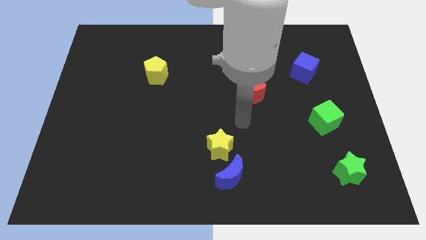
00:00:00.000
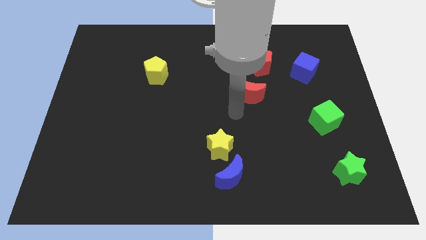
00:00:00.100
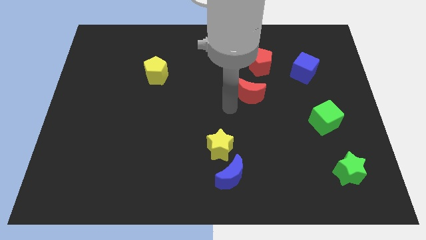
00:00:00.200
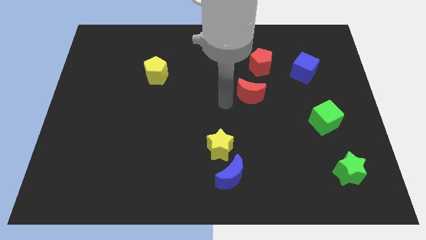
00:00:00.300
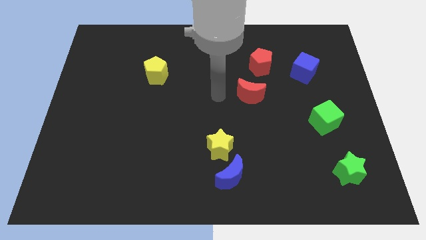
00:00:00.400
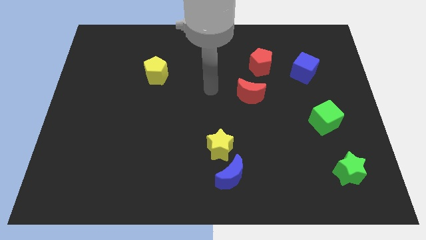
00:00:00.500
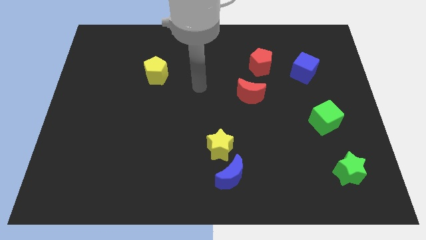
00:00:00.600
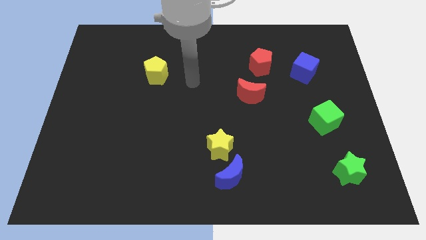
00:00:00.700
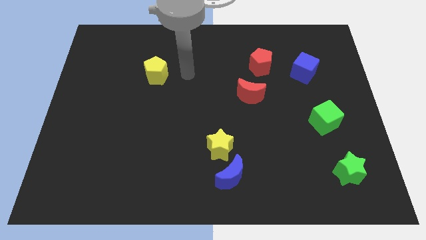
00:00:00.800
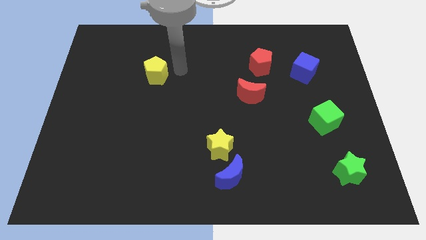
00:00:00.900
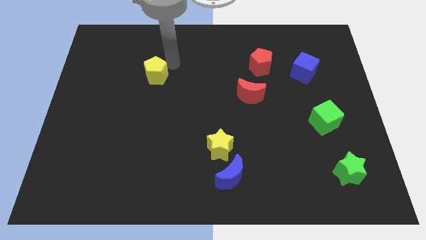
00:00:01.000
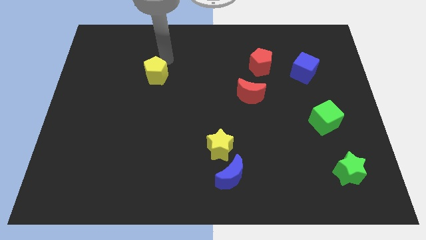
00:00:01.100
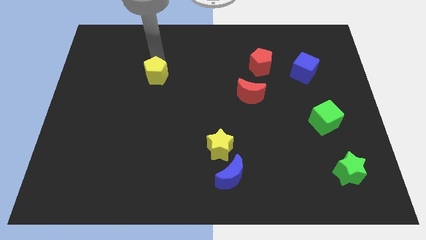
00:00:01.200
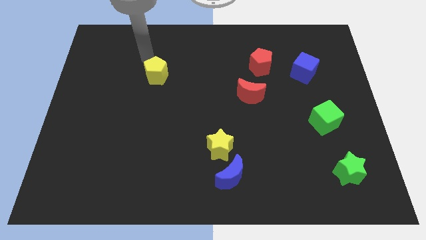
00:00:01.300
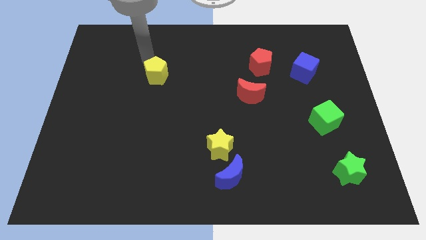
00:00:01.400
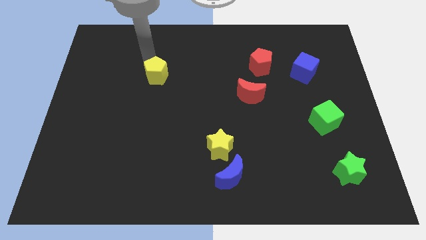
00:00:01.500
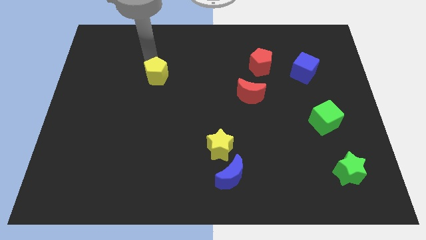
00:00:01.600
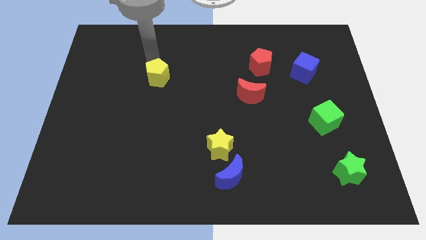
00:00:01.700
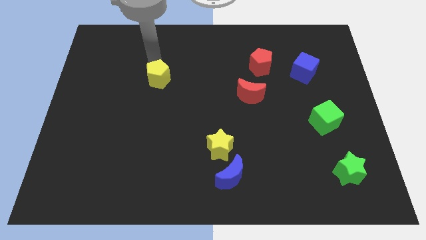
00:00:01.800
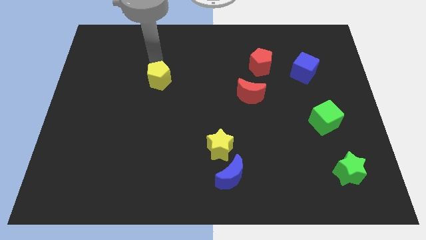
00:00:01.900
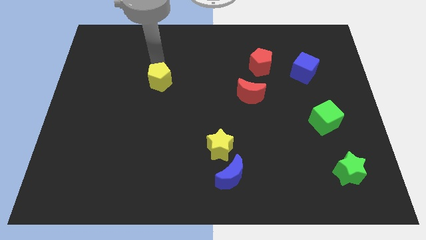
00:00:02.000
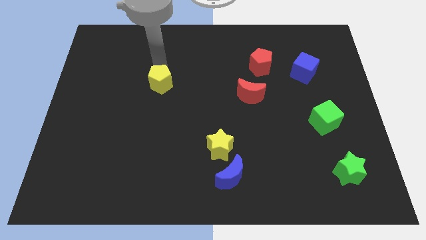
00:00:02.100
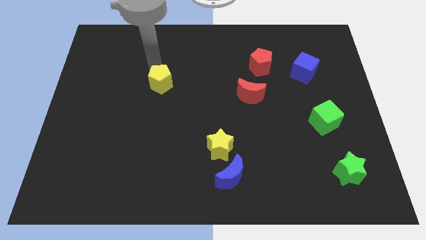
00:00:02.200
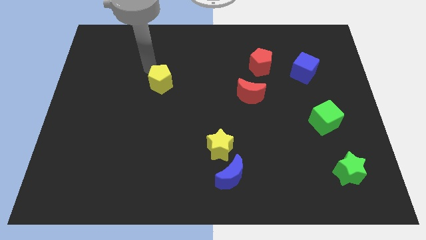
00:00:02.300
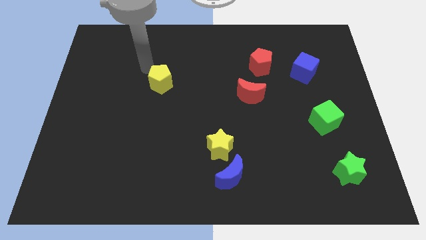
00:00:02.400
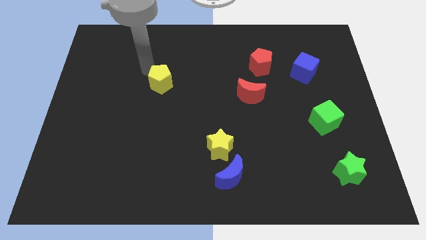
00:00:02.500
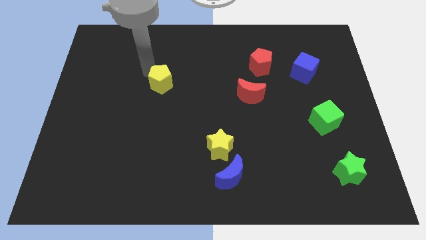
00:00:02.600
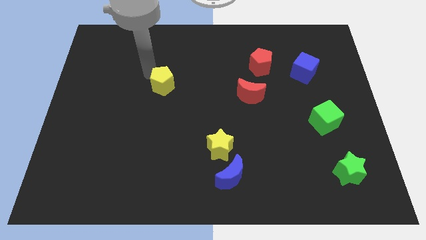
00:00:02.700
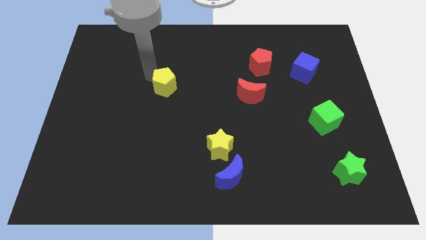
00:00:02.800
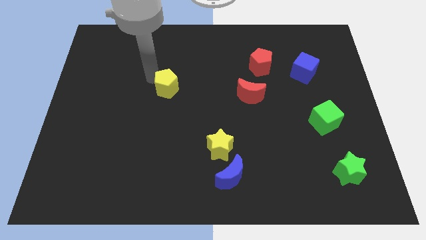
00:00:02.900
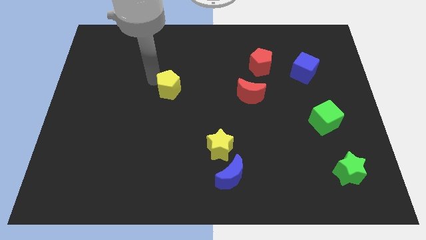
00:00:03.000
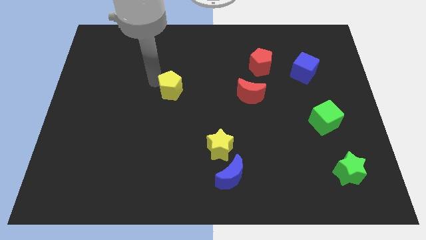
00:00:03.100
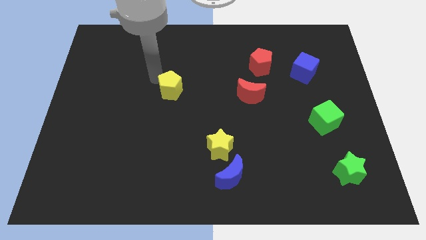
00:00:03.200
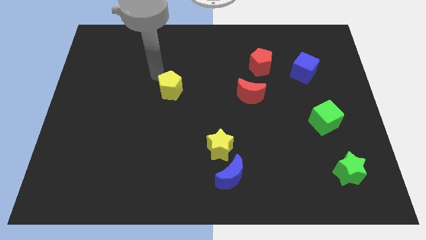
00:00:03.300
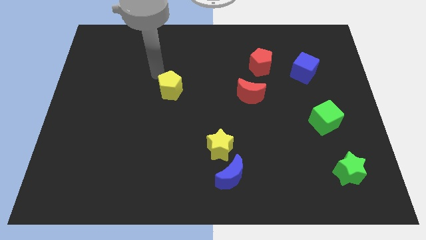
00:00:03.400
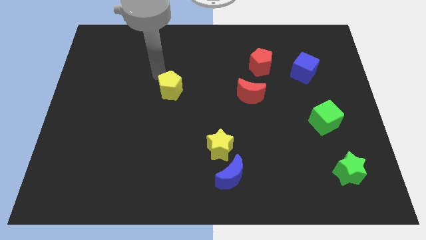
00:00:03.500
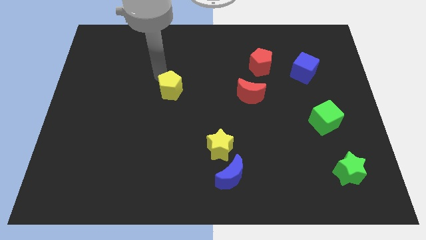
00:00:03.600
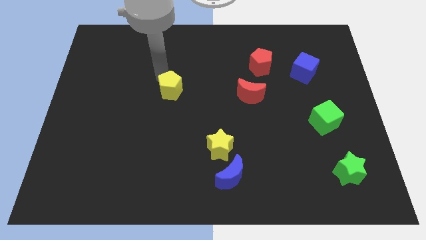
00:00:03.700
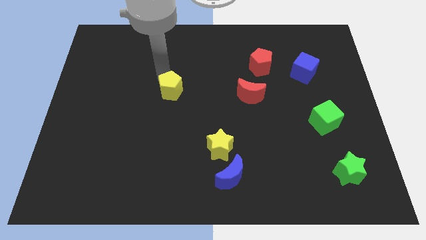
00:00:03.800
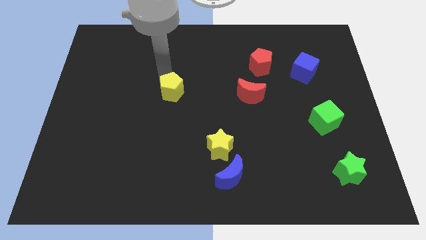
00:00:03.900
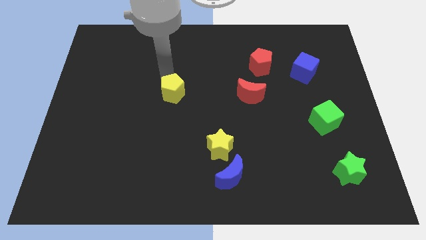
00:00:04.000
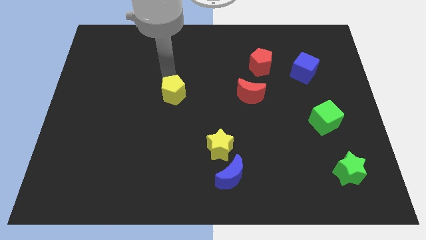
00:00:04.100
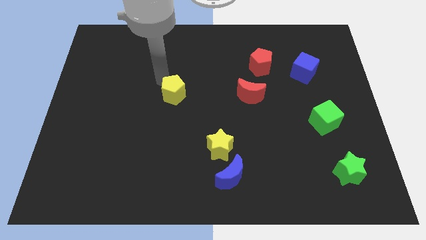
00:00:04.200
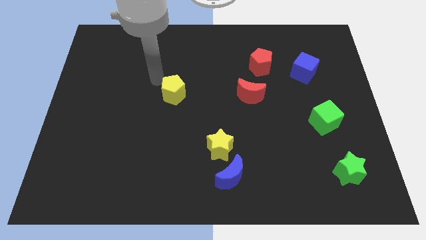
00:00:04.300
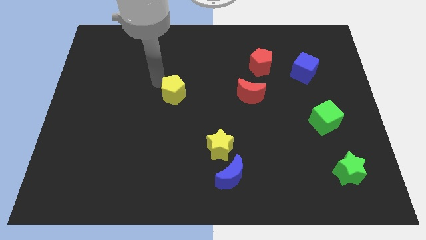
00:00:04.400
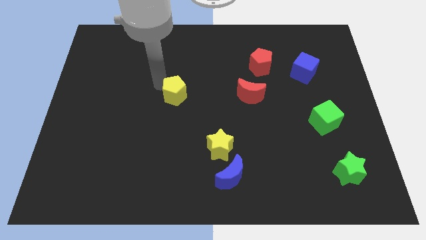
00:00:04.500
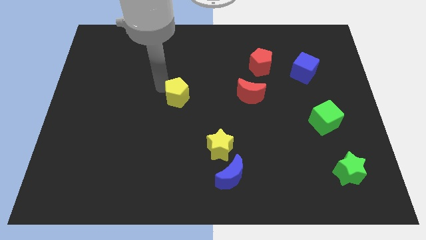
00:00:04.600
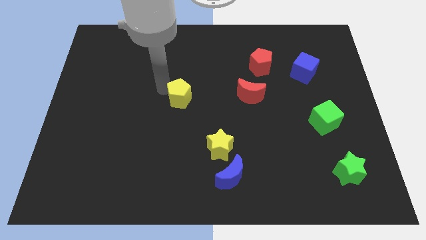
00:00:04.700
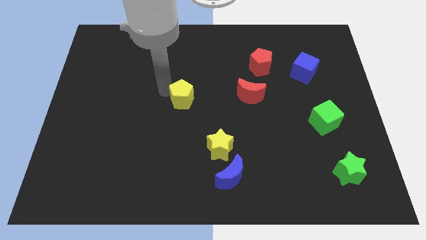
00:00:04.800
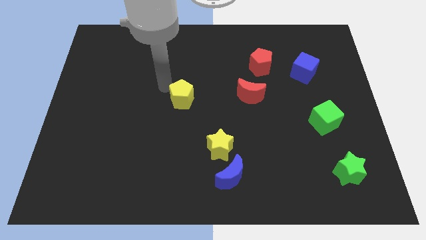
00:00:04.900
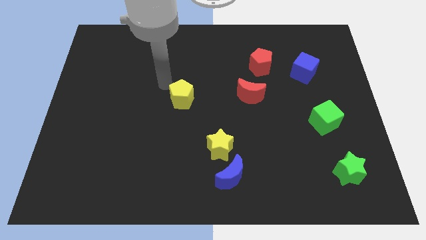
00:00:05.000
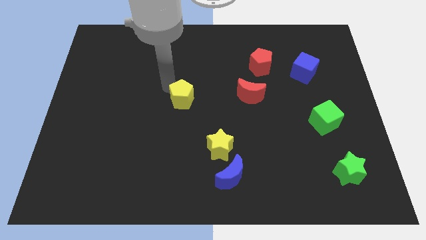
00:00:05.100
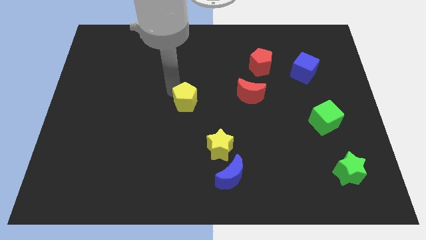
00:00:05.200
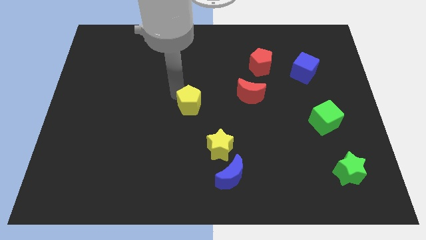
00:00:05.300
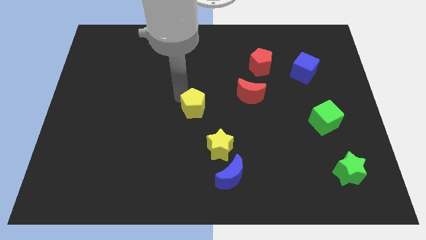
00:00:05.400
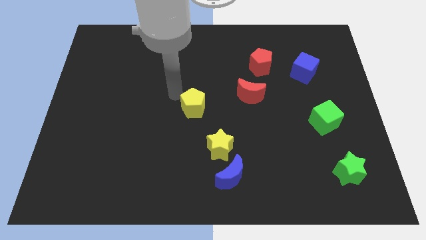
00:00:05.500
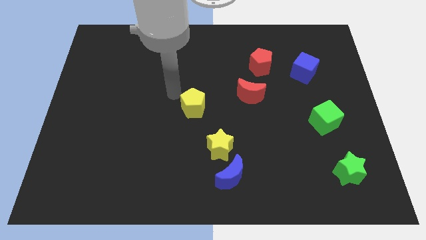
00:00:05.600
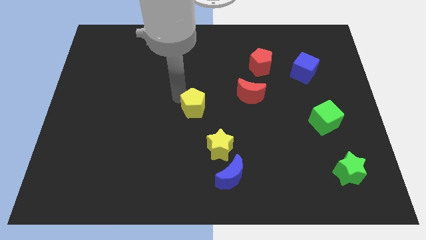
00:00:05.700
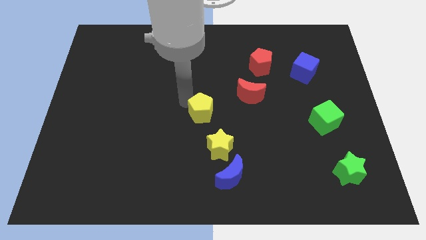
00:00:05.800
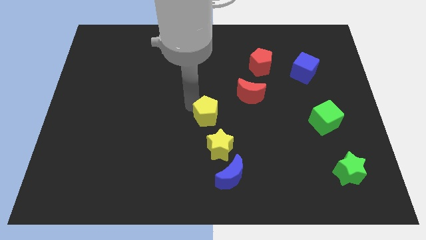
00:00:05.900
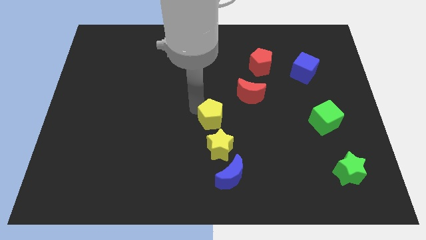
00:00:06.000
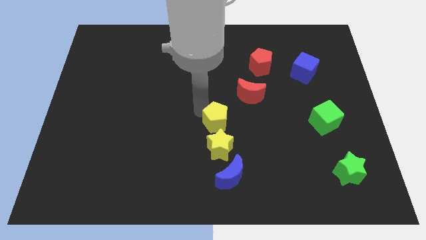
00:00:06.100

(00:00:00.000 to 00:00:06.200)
move the yellow pentagon downwards and to the right diagonally

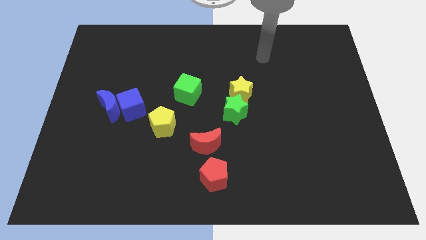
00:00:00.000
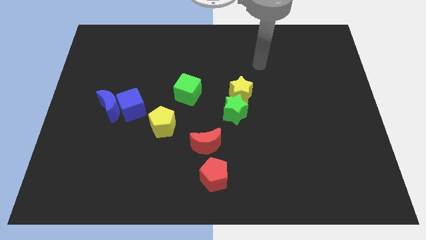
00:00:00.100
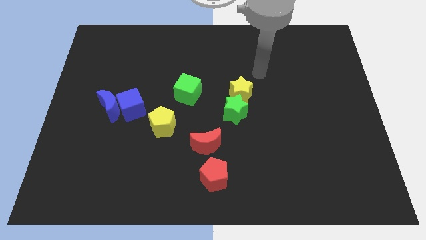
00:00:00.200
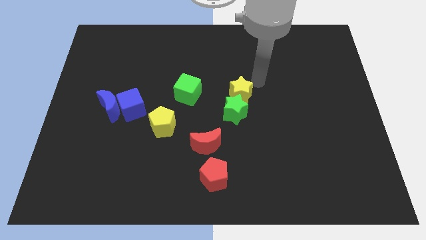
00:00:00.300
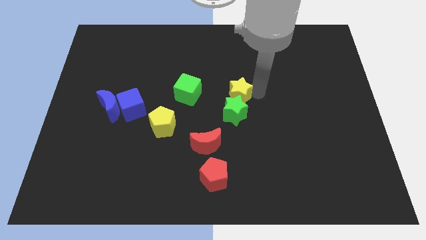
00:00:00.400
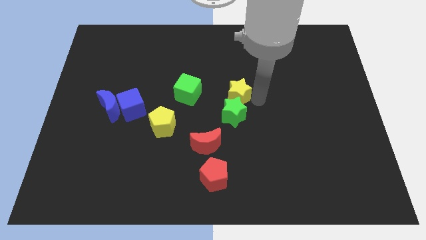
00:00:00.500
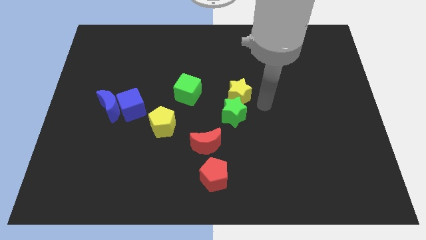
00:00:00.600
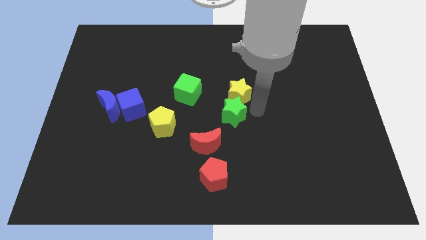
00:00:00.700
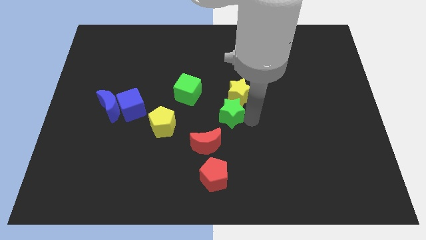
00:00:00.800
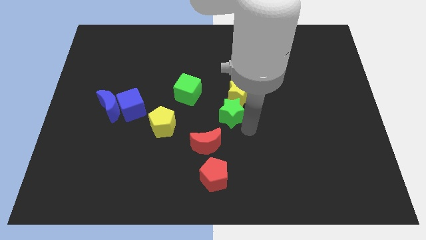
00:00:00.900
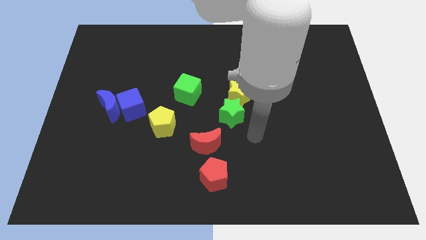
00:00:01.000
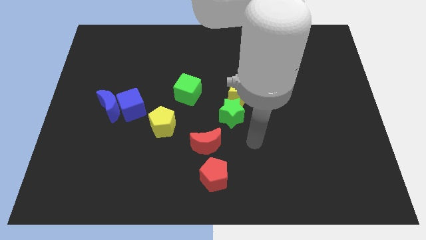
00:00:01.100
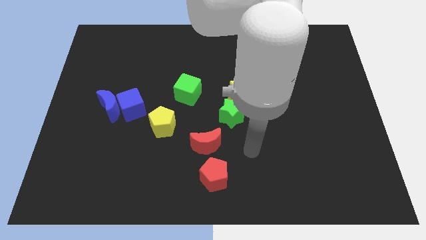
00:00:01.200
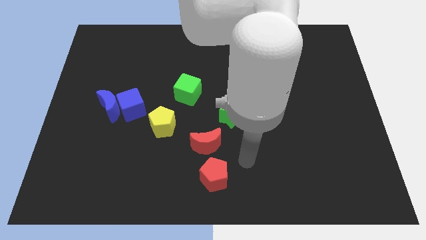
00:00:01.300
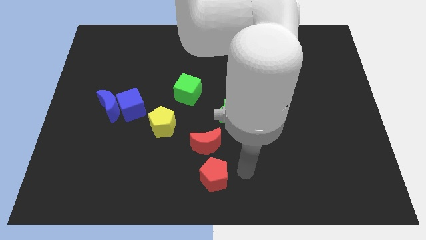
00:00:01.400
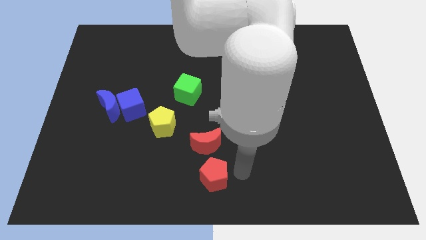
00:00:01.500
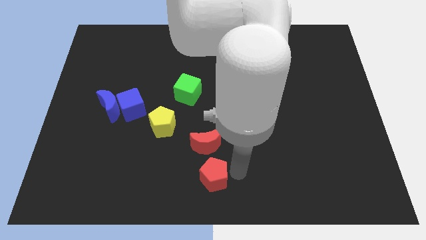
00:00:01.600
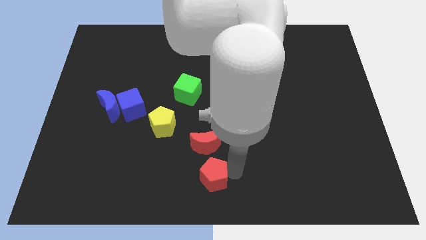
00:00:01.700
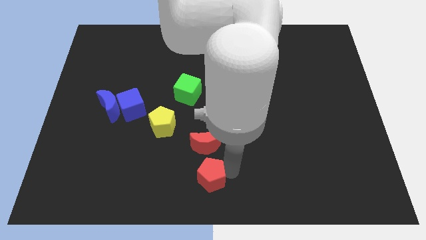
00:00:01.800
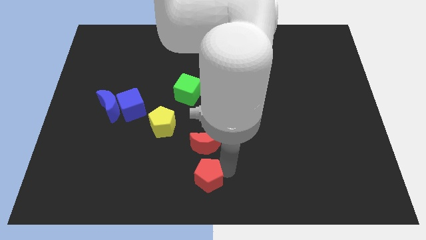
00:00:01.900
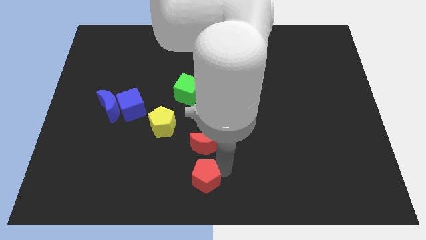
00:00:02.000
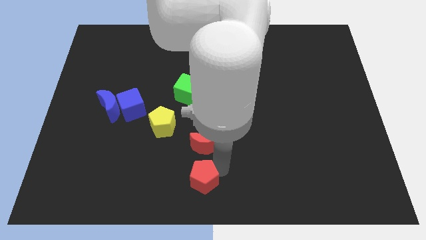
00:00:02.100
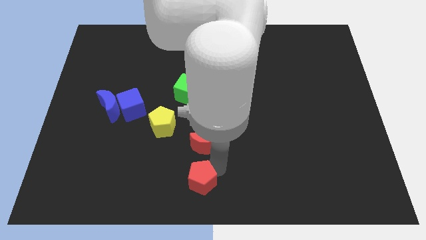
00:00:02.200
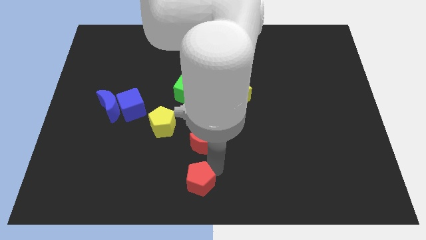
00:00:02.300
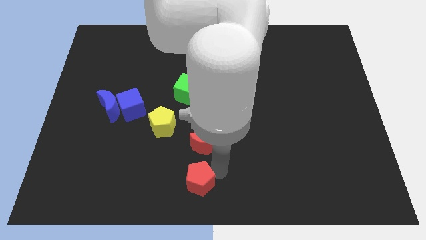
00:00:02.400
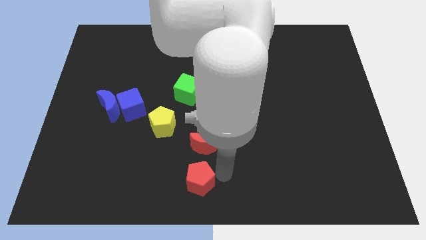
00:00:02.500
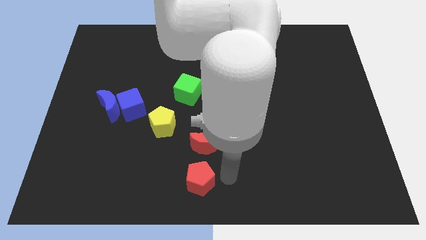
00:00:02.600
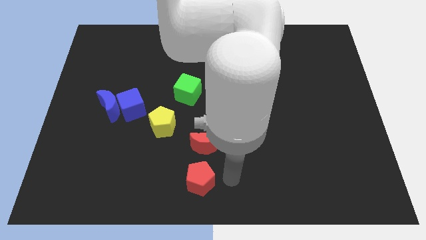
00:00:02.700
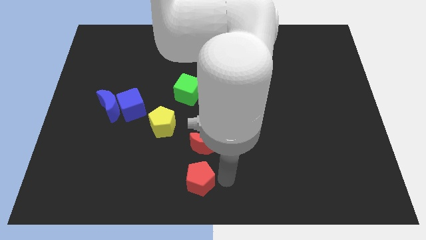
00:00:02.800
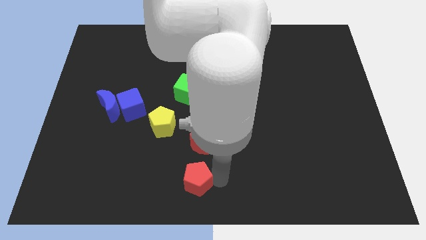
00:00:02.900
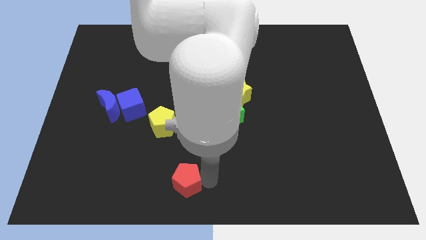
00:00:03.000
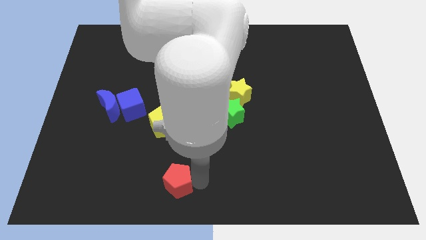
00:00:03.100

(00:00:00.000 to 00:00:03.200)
move the red pentagon left a little
